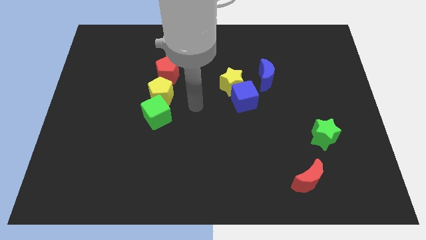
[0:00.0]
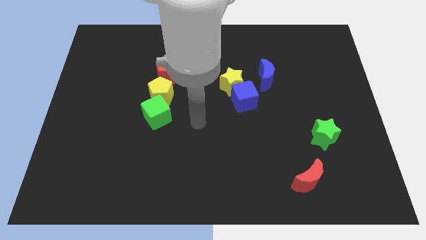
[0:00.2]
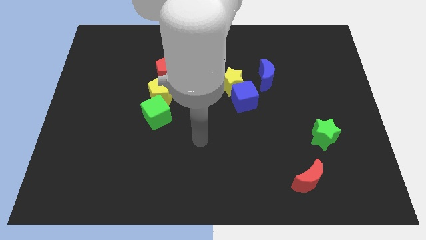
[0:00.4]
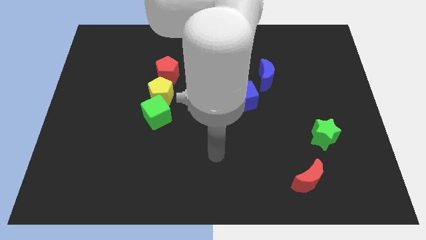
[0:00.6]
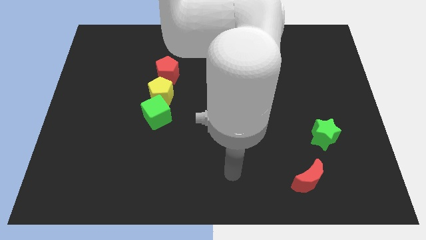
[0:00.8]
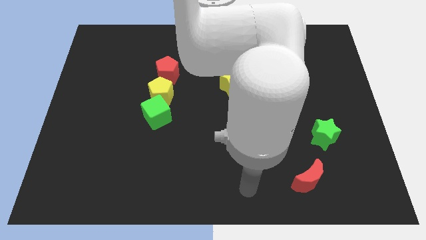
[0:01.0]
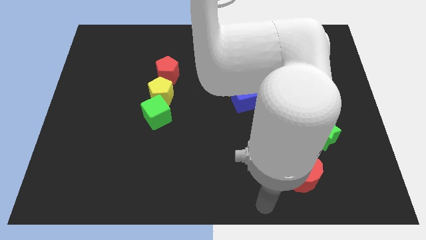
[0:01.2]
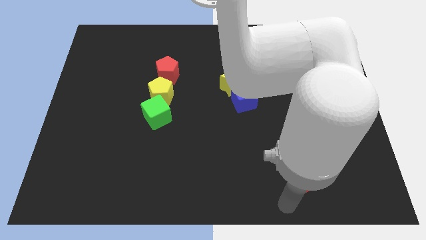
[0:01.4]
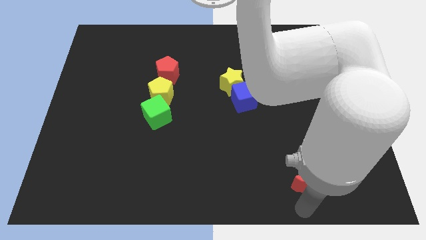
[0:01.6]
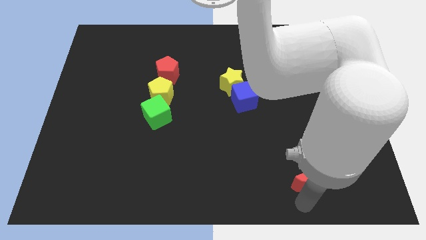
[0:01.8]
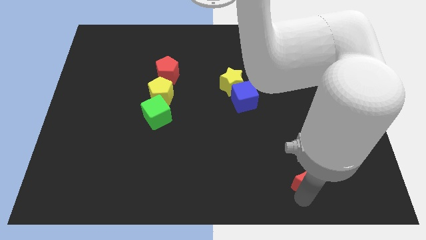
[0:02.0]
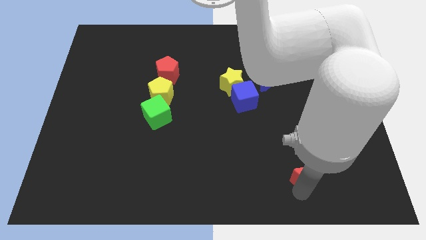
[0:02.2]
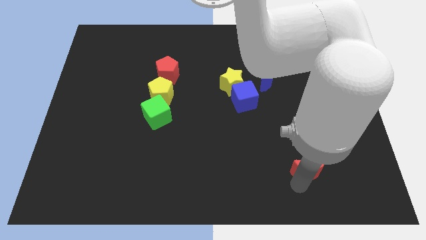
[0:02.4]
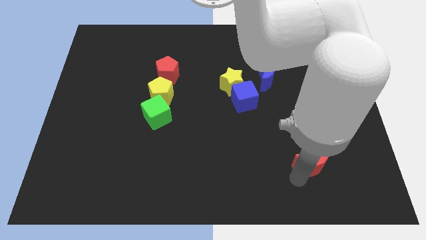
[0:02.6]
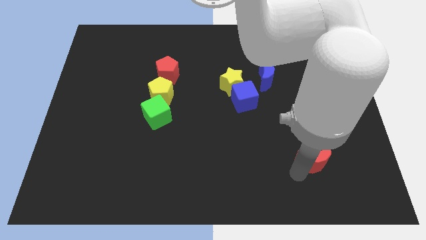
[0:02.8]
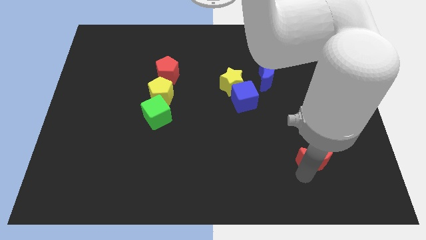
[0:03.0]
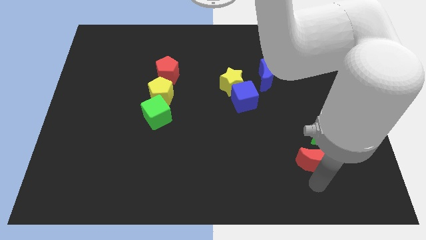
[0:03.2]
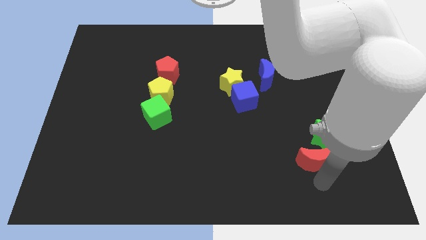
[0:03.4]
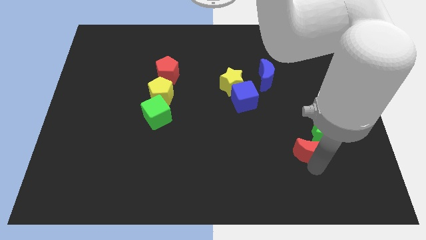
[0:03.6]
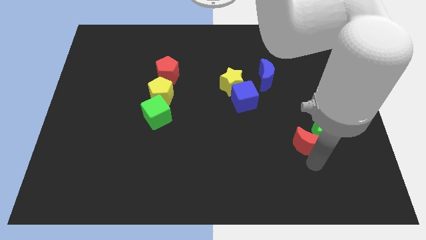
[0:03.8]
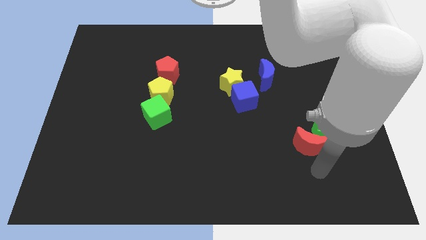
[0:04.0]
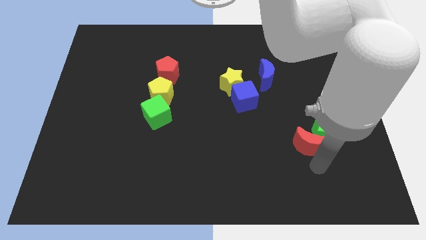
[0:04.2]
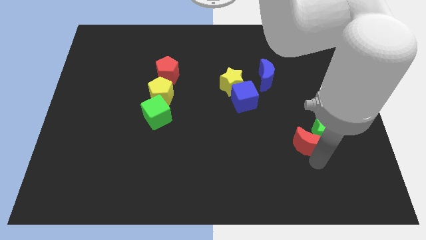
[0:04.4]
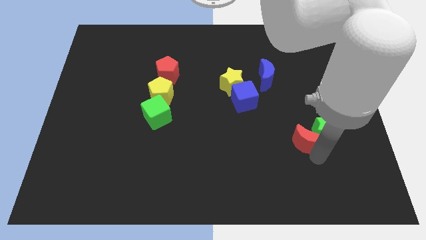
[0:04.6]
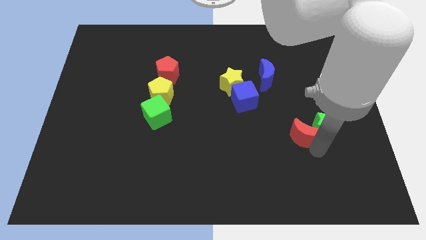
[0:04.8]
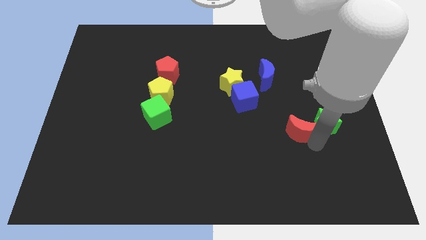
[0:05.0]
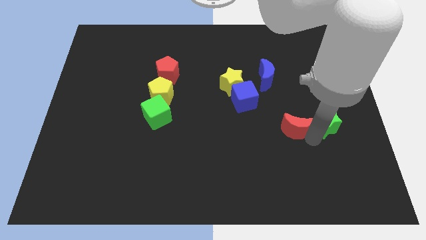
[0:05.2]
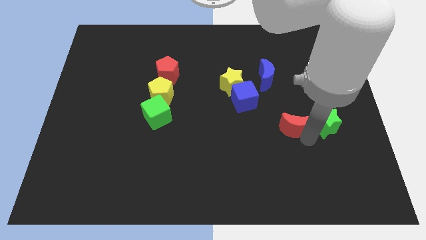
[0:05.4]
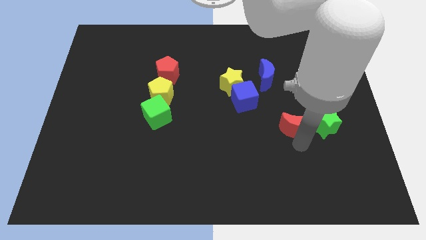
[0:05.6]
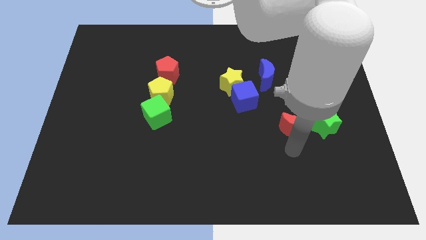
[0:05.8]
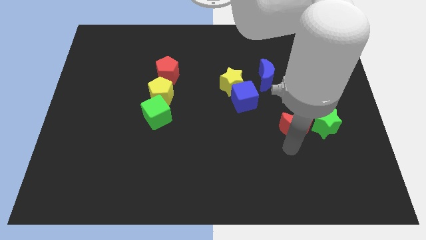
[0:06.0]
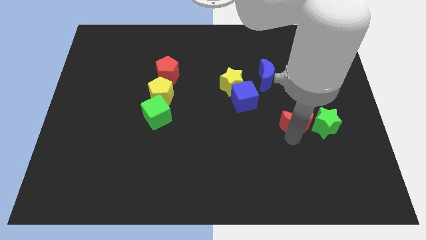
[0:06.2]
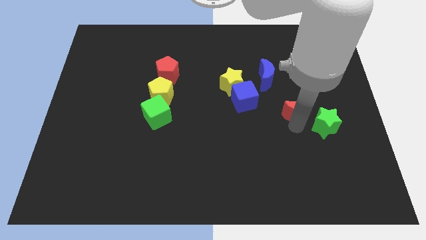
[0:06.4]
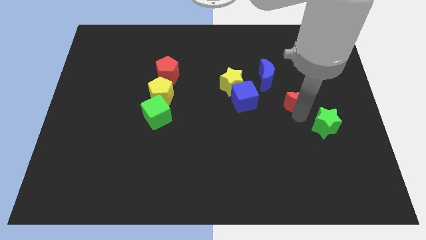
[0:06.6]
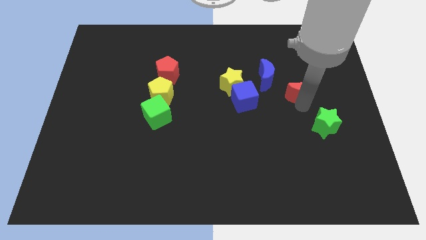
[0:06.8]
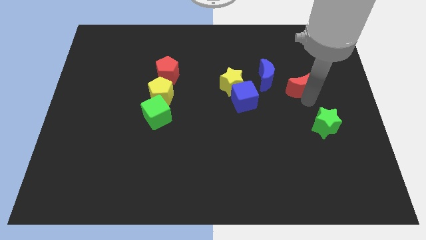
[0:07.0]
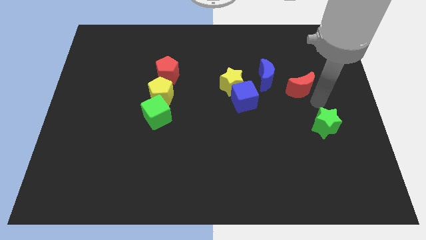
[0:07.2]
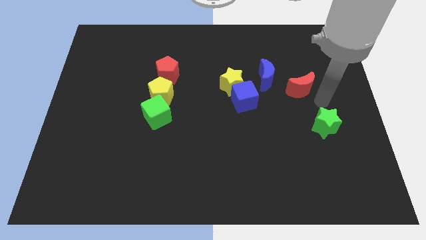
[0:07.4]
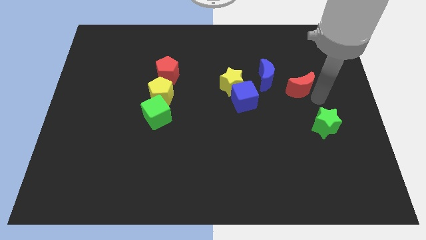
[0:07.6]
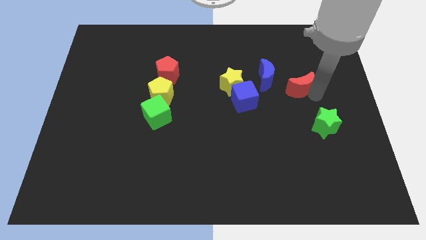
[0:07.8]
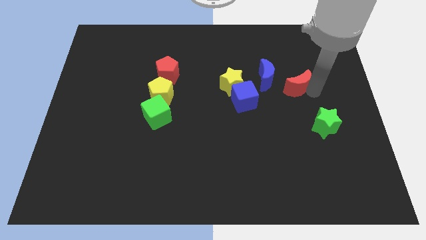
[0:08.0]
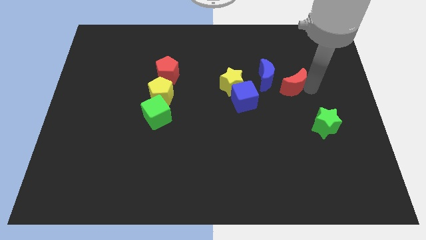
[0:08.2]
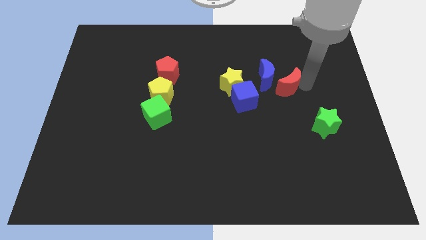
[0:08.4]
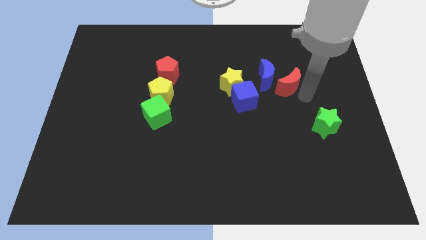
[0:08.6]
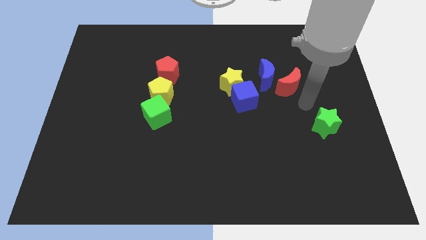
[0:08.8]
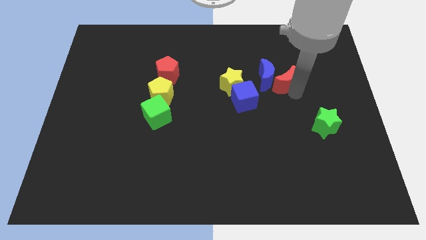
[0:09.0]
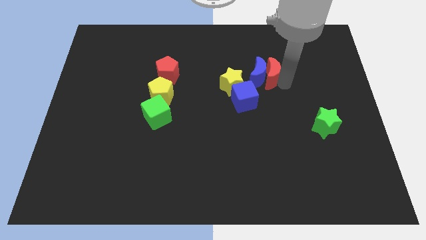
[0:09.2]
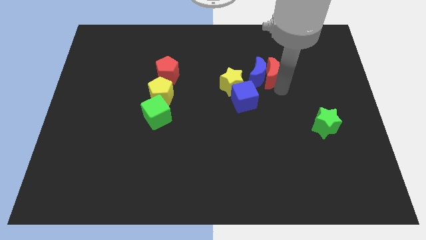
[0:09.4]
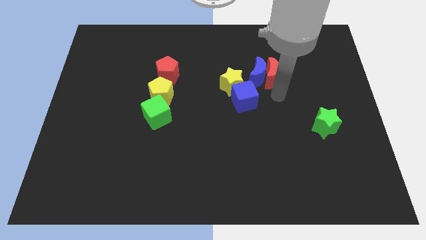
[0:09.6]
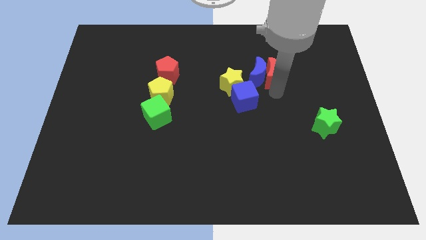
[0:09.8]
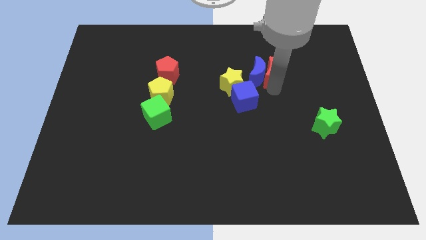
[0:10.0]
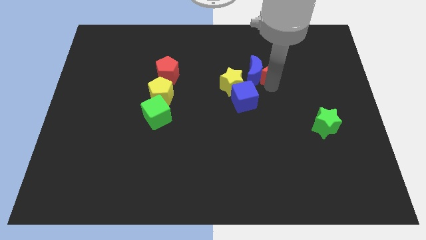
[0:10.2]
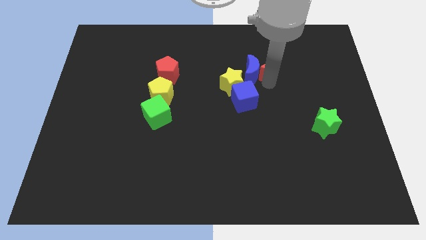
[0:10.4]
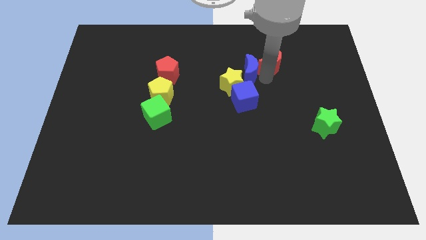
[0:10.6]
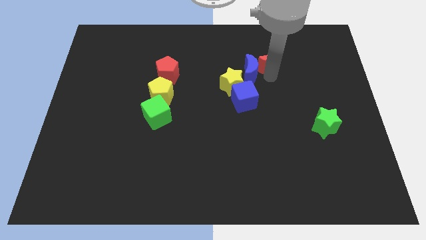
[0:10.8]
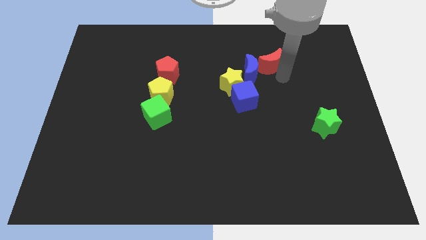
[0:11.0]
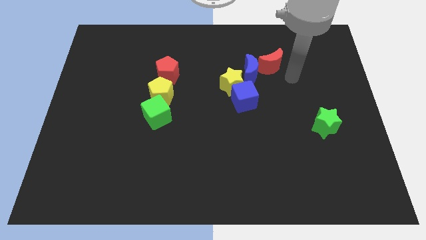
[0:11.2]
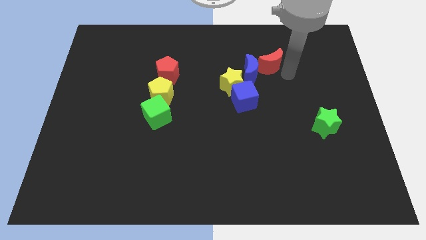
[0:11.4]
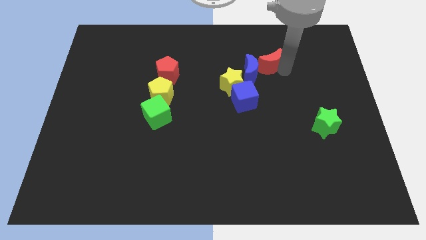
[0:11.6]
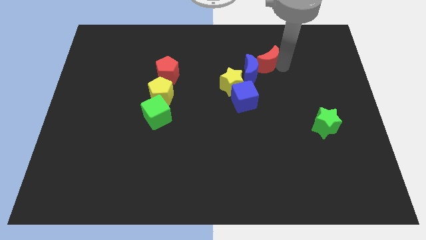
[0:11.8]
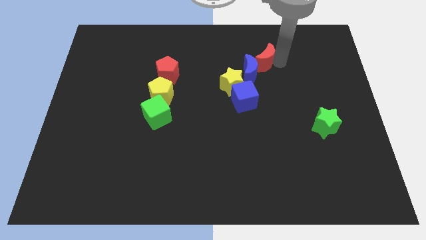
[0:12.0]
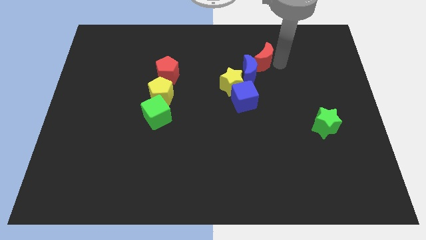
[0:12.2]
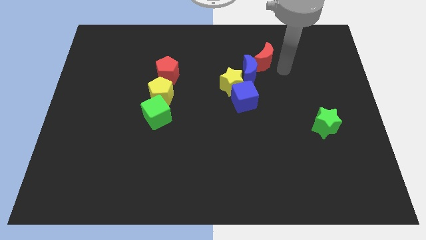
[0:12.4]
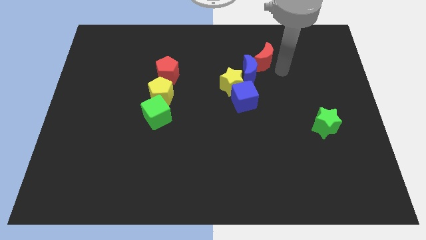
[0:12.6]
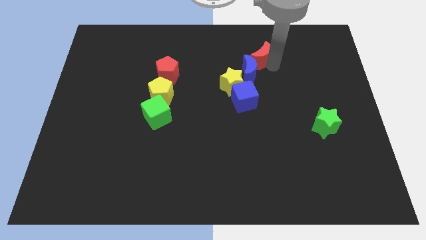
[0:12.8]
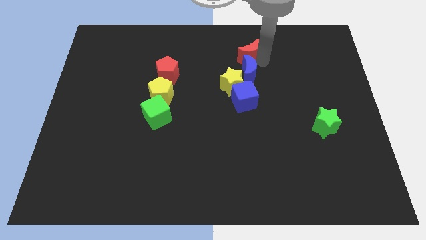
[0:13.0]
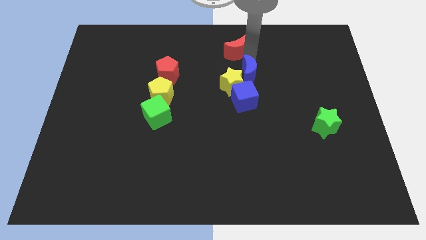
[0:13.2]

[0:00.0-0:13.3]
put the red moon to the towards your base

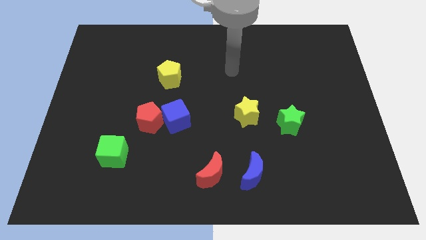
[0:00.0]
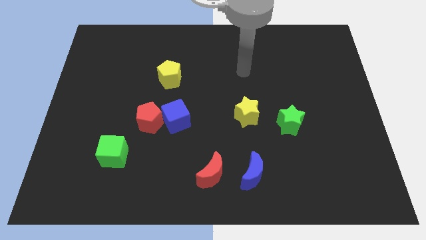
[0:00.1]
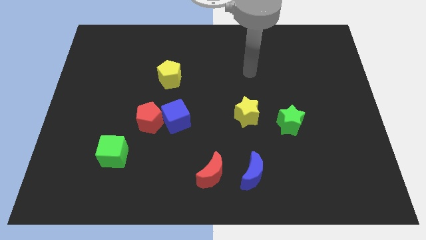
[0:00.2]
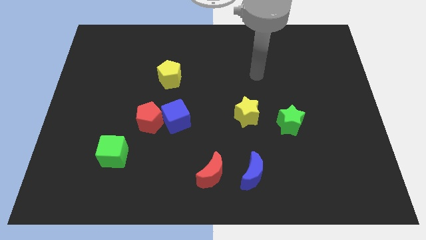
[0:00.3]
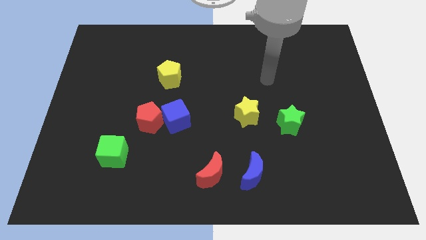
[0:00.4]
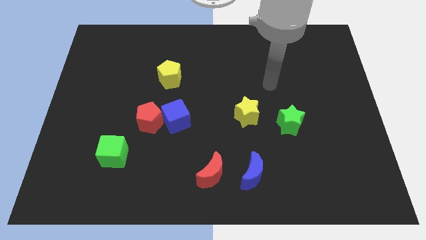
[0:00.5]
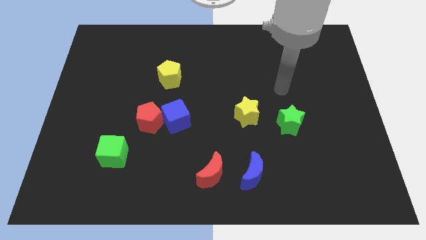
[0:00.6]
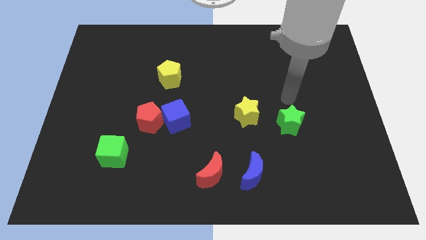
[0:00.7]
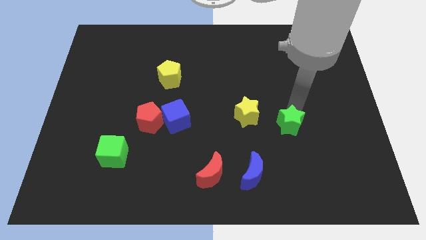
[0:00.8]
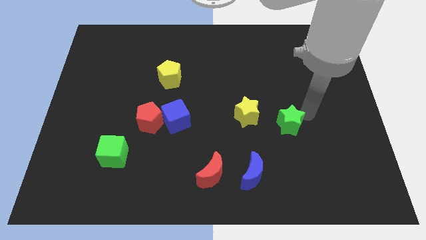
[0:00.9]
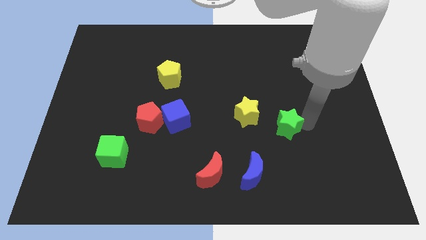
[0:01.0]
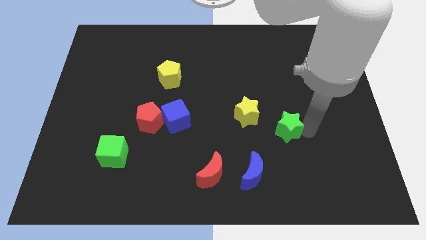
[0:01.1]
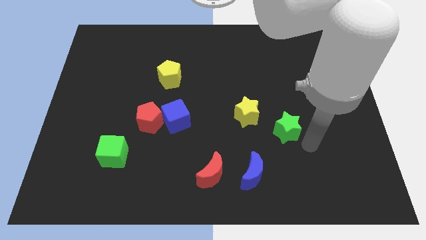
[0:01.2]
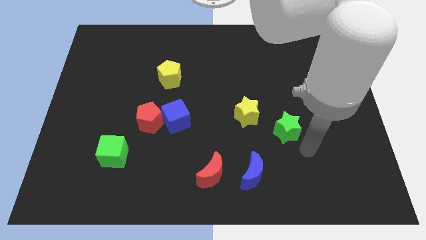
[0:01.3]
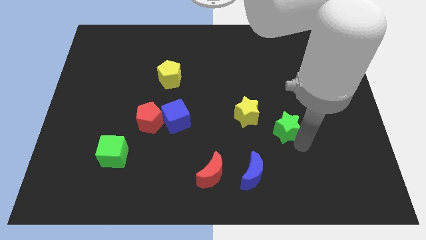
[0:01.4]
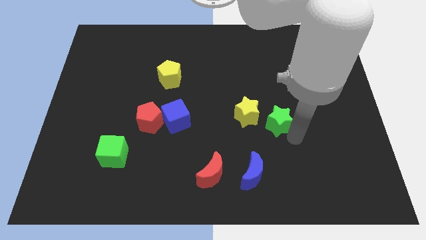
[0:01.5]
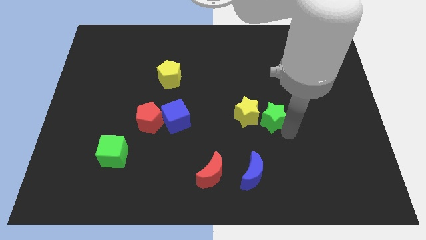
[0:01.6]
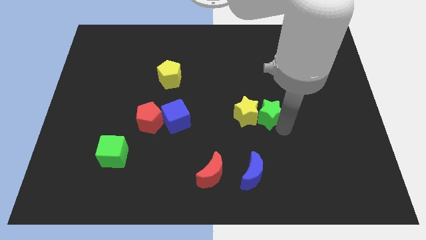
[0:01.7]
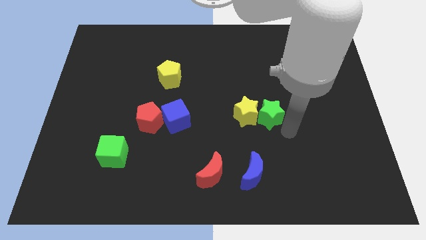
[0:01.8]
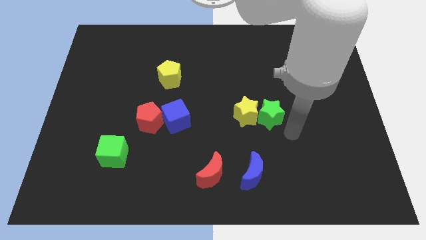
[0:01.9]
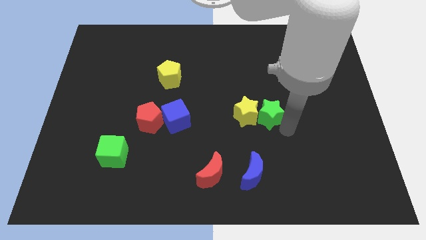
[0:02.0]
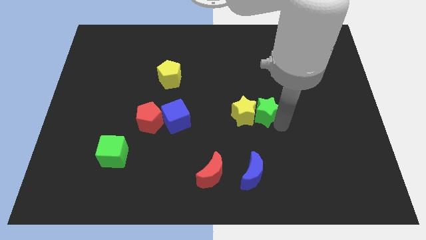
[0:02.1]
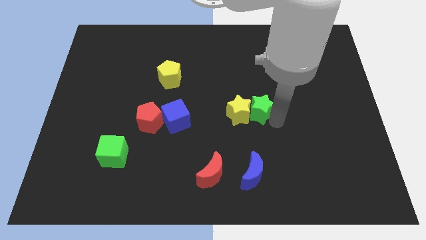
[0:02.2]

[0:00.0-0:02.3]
move the green star to the middle
